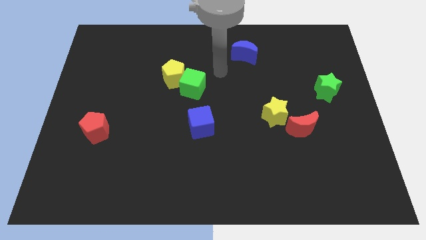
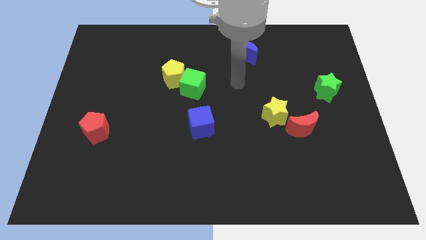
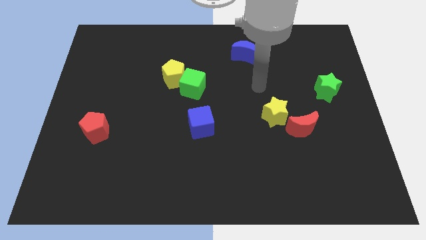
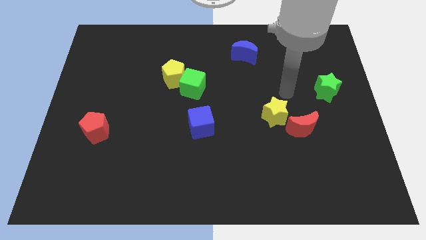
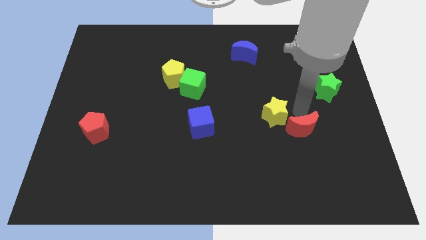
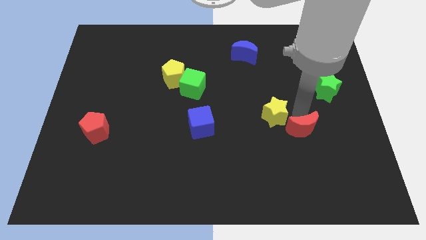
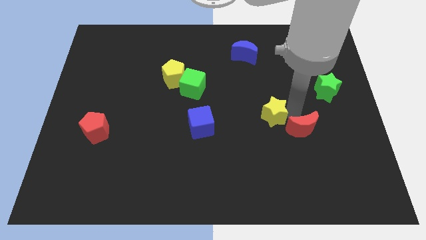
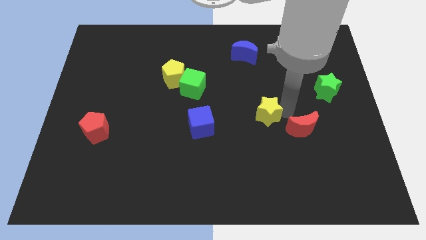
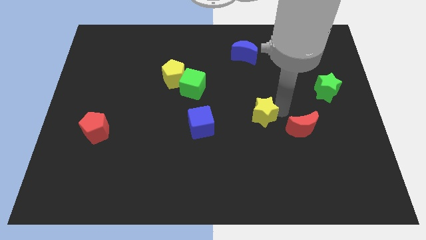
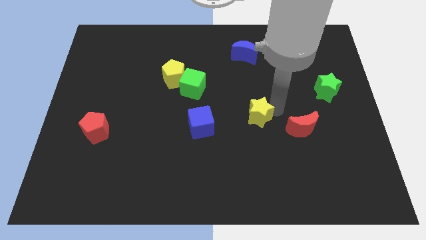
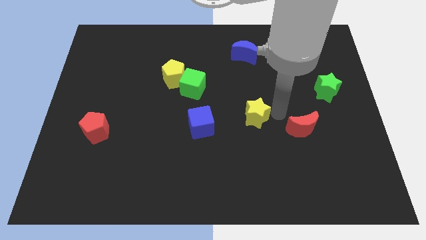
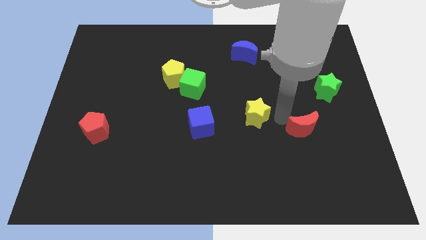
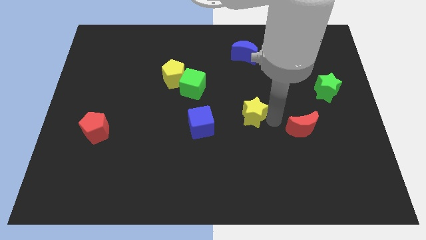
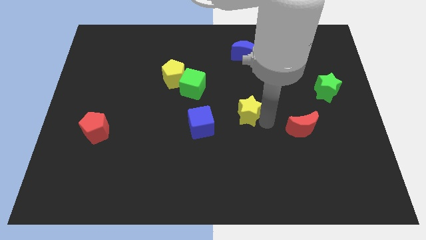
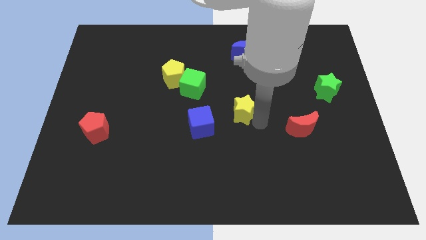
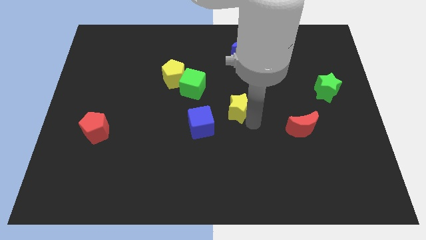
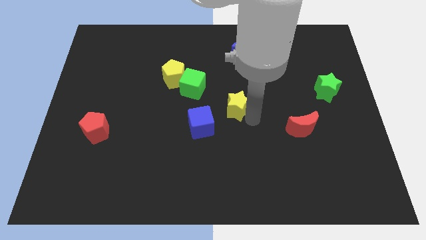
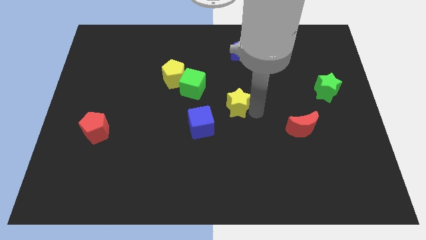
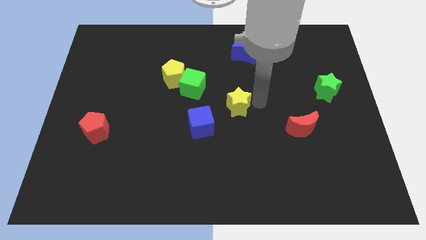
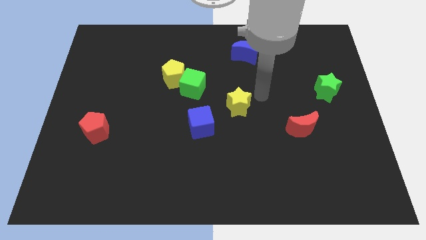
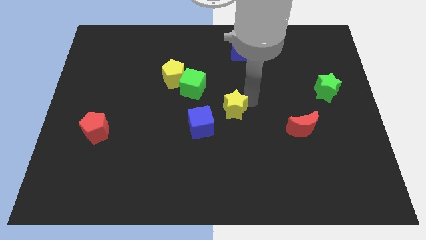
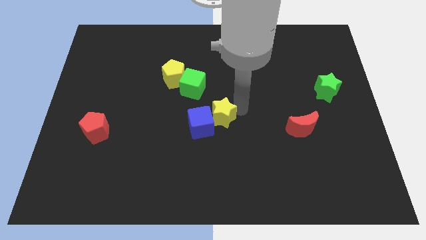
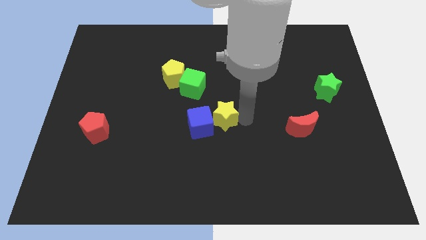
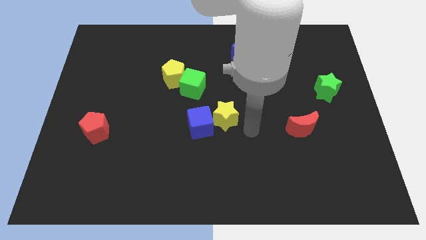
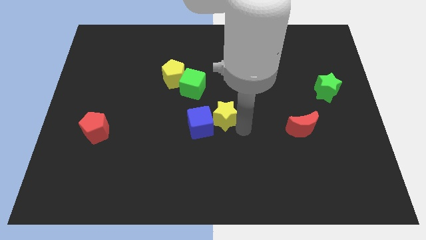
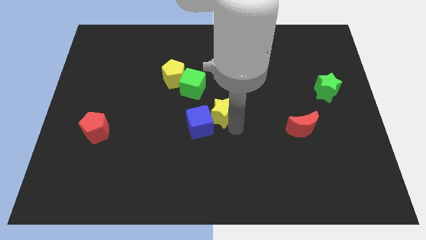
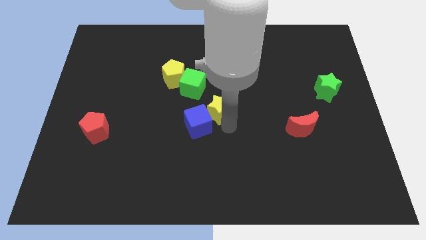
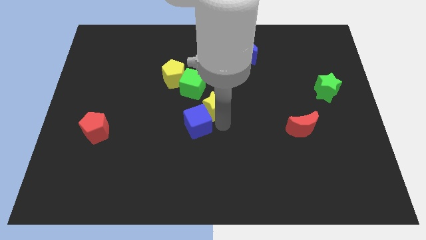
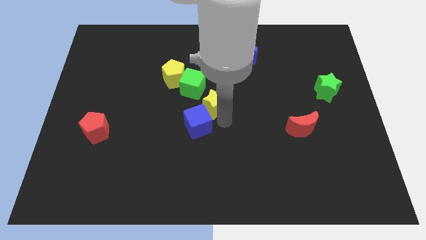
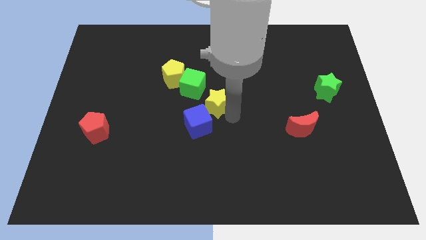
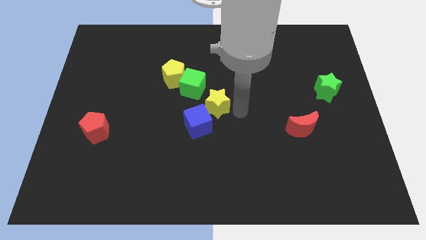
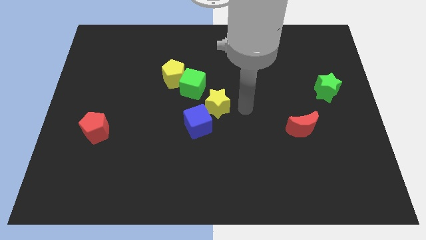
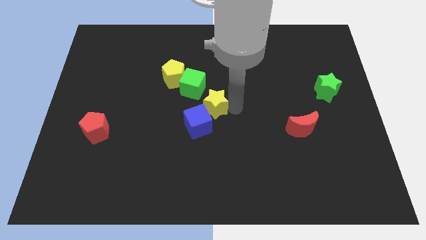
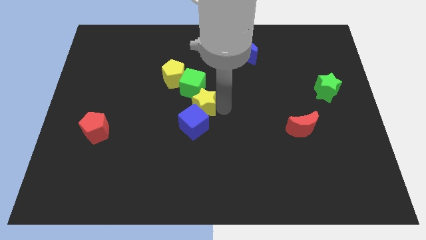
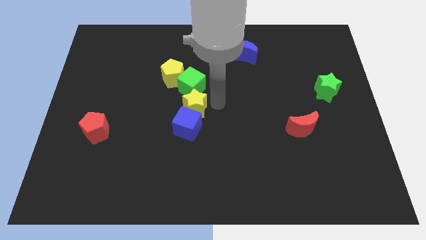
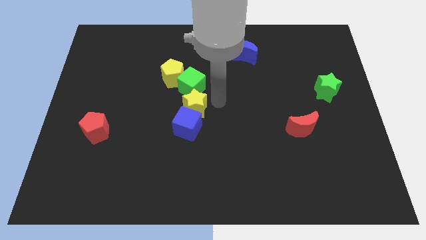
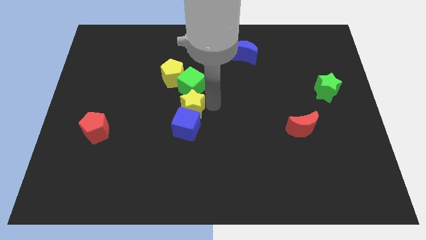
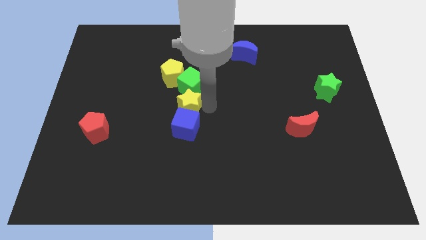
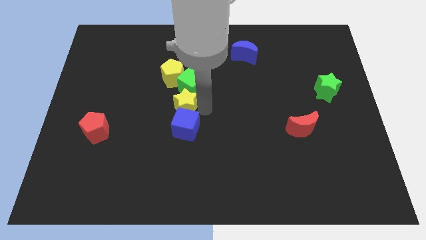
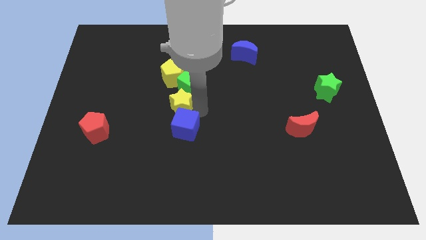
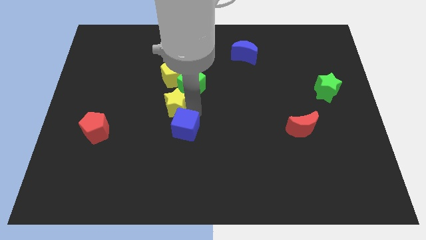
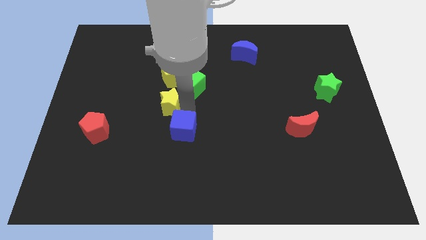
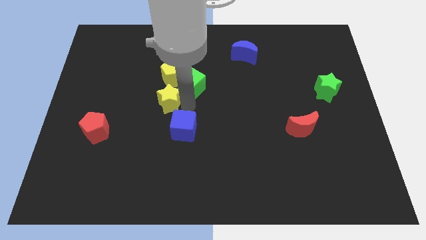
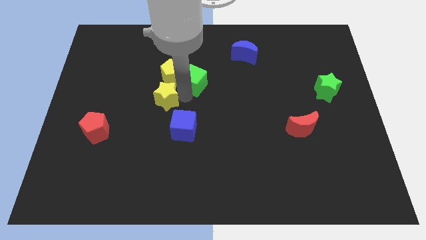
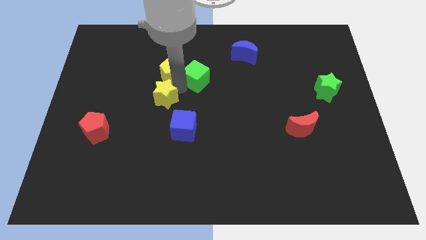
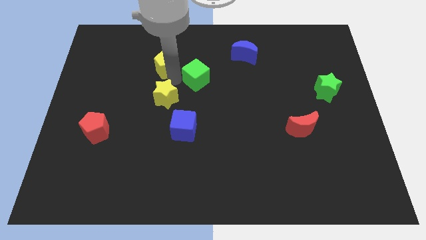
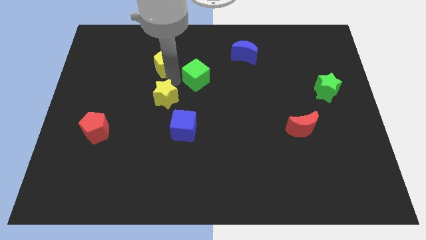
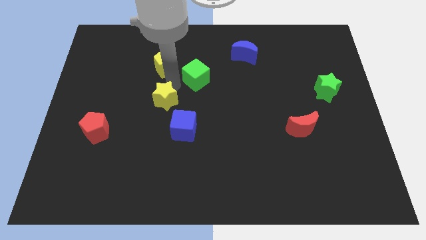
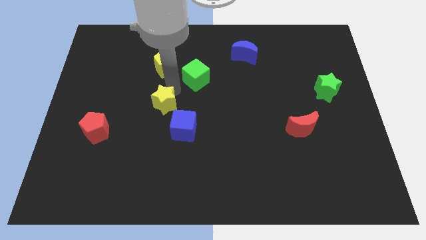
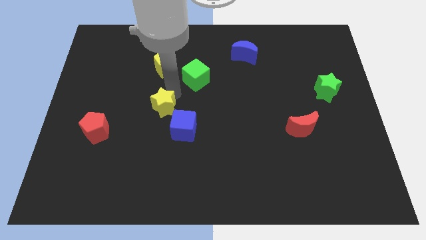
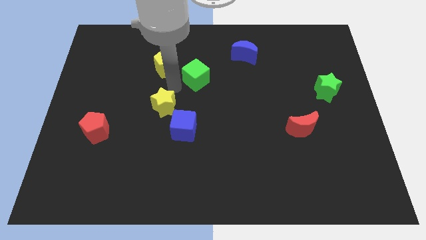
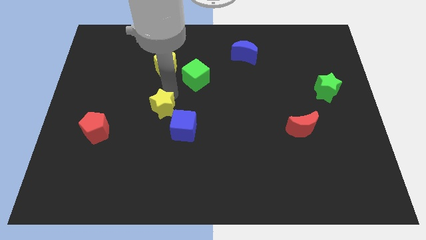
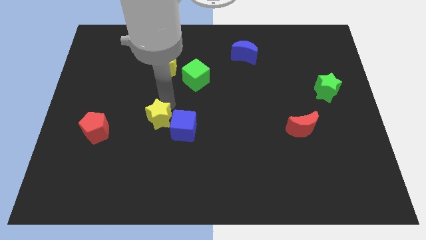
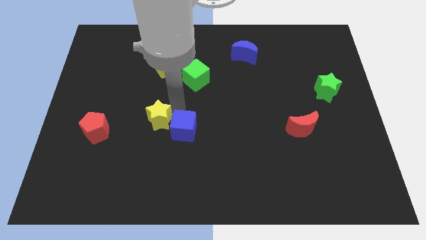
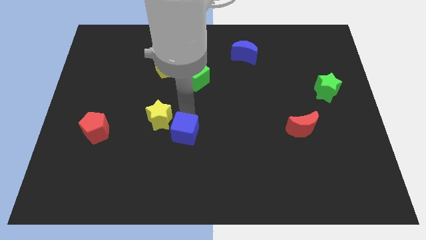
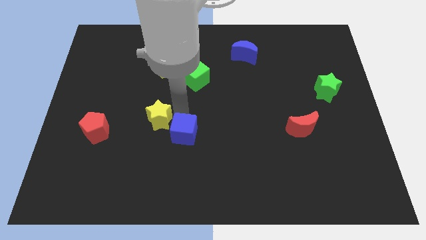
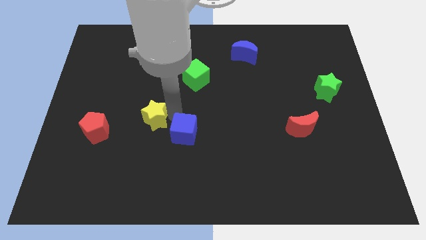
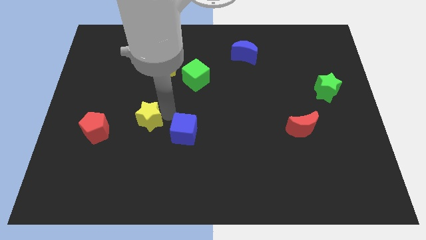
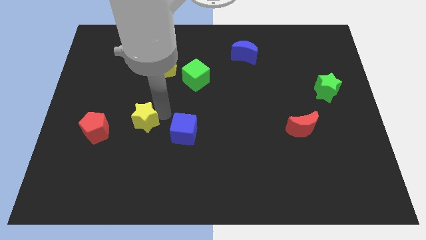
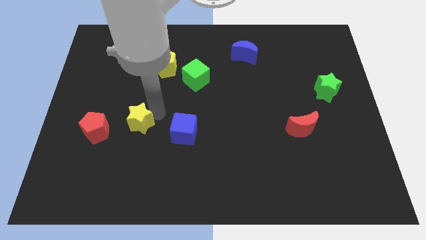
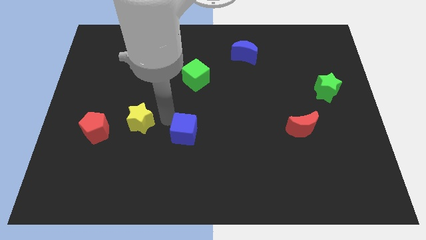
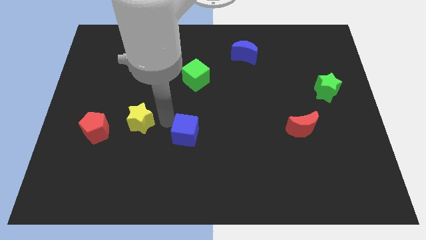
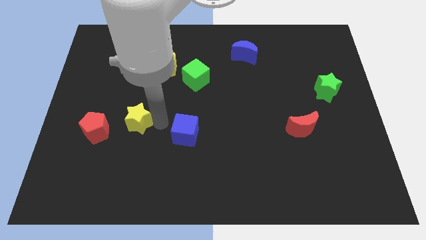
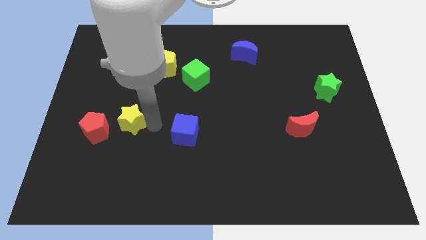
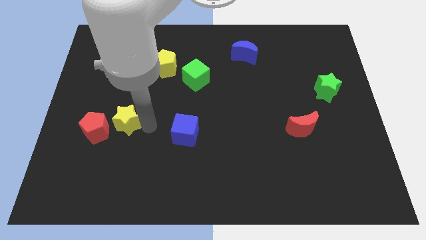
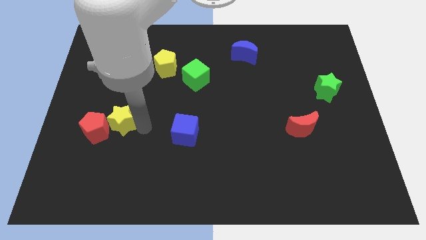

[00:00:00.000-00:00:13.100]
slide the yellow star next to the red pentagon
